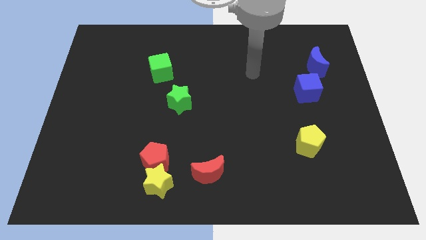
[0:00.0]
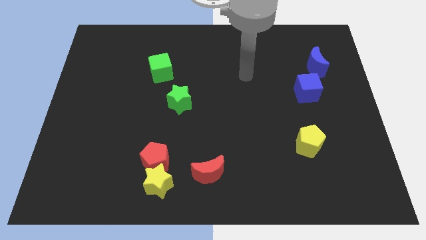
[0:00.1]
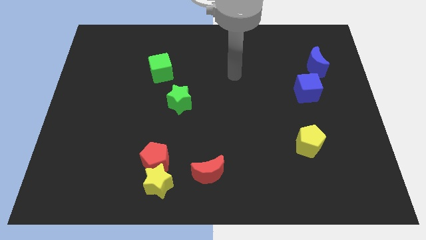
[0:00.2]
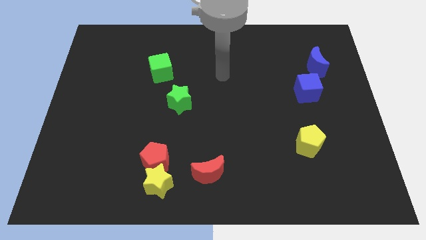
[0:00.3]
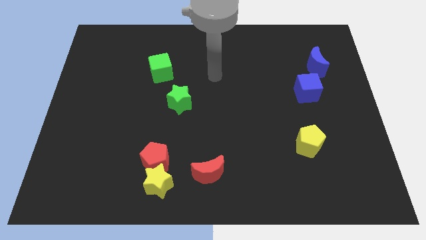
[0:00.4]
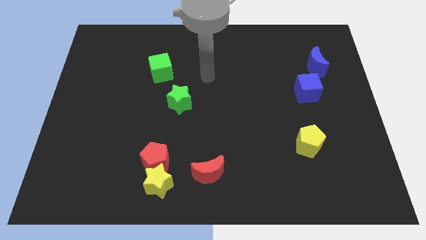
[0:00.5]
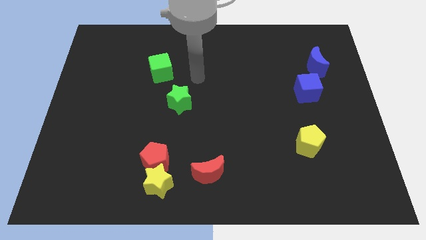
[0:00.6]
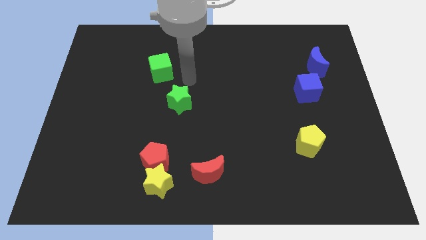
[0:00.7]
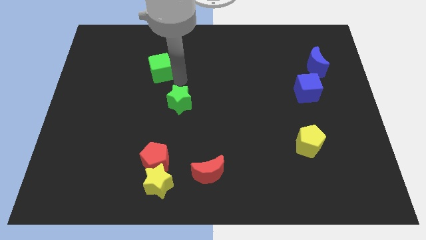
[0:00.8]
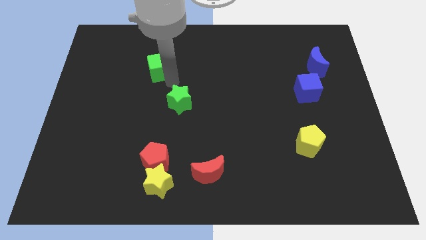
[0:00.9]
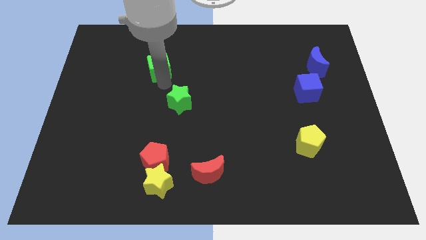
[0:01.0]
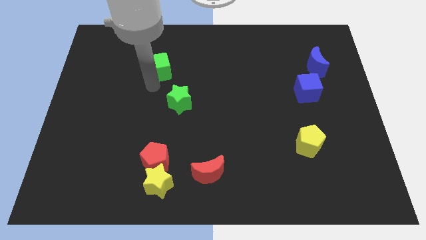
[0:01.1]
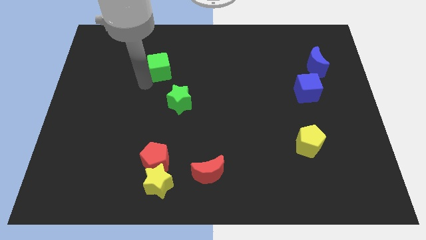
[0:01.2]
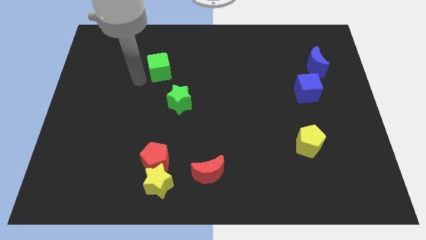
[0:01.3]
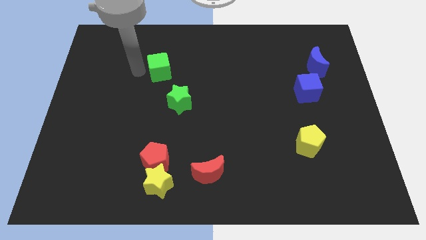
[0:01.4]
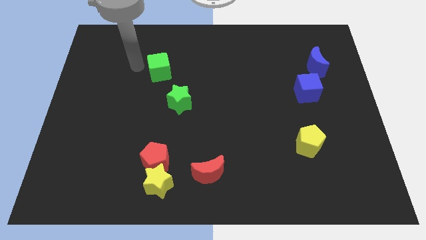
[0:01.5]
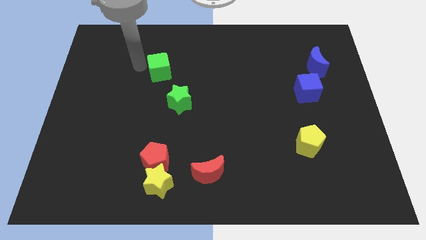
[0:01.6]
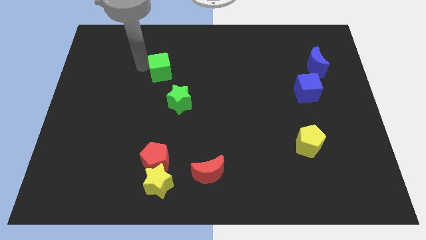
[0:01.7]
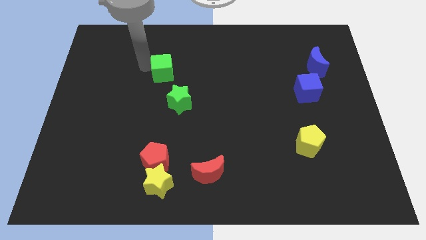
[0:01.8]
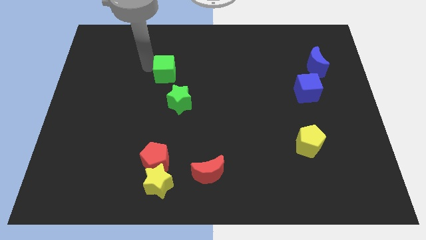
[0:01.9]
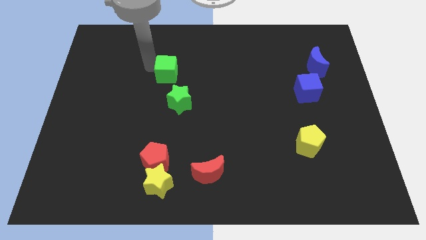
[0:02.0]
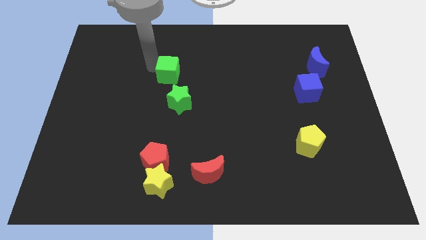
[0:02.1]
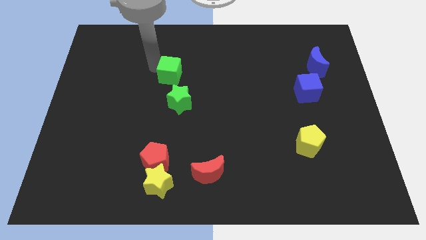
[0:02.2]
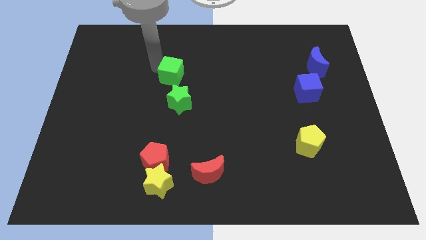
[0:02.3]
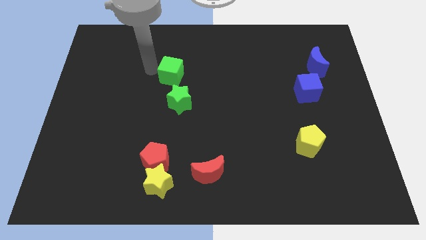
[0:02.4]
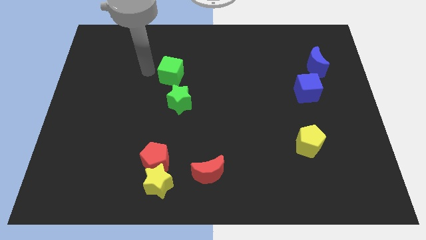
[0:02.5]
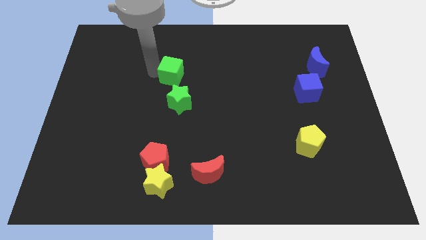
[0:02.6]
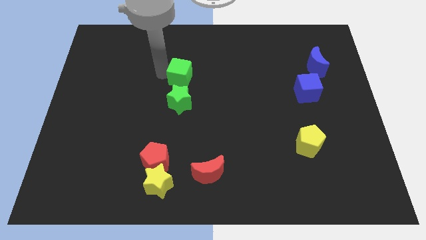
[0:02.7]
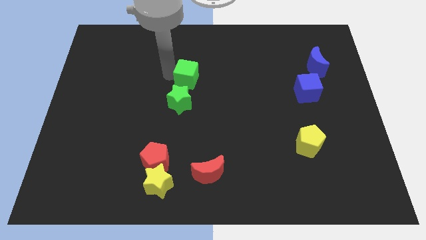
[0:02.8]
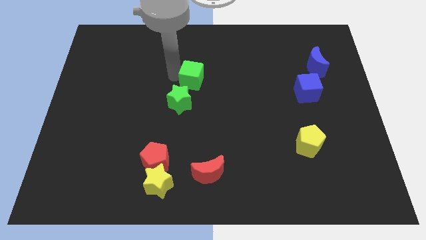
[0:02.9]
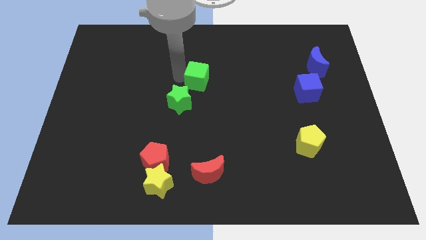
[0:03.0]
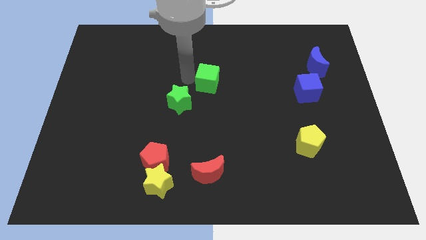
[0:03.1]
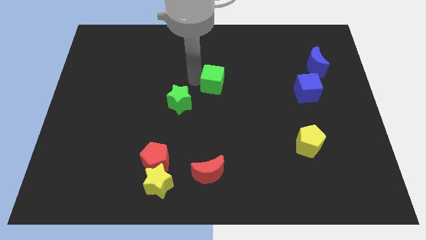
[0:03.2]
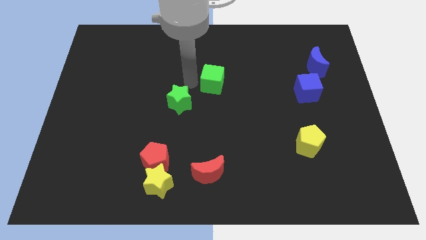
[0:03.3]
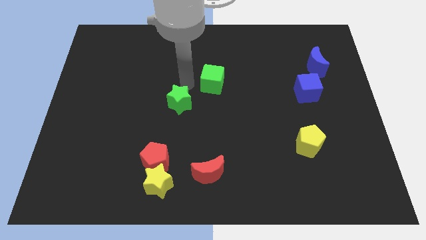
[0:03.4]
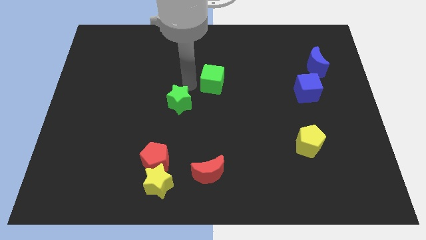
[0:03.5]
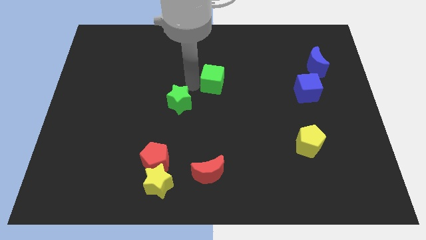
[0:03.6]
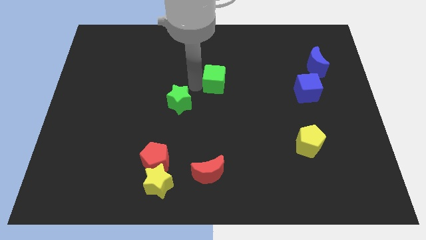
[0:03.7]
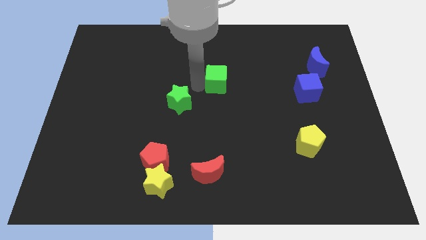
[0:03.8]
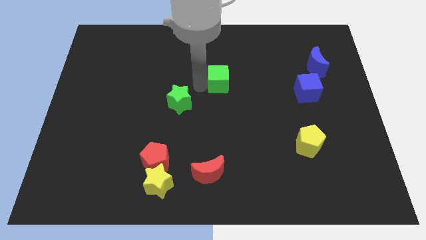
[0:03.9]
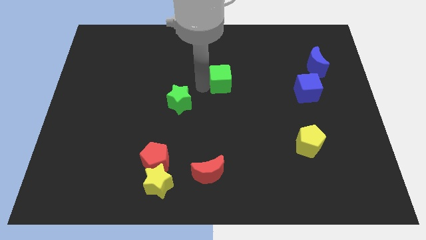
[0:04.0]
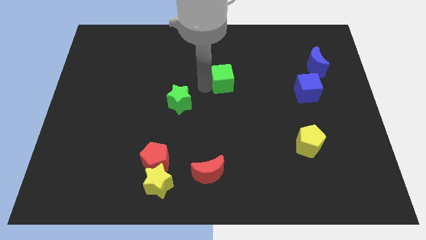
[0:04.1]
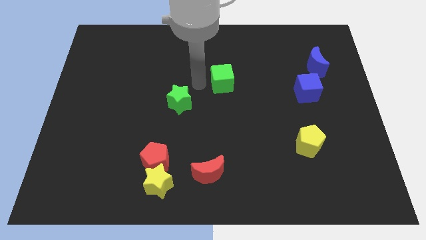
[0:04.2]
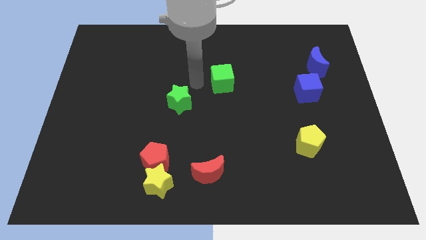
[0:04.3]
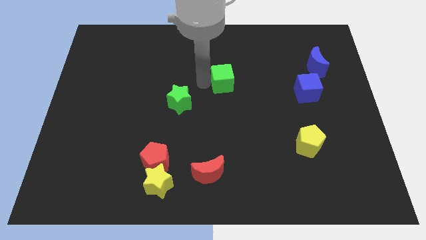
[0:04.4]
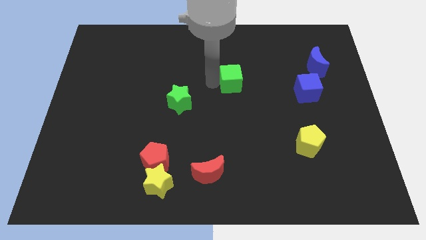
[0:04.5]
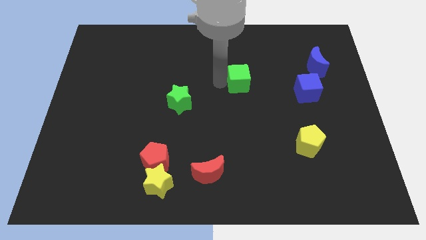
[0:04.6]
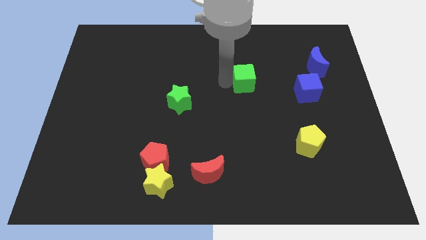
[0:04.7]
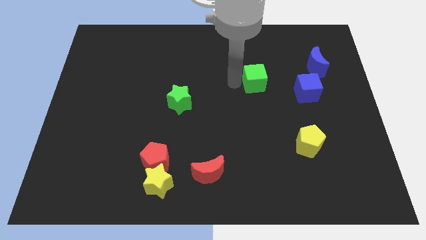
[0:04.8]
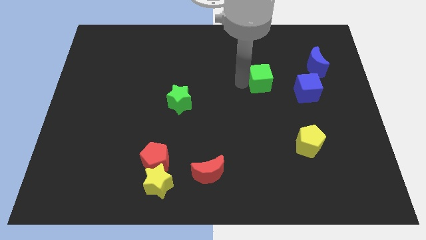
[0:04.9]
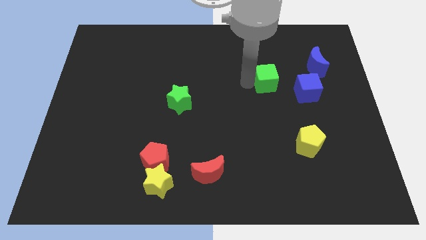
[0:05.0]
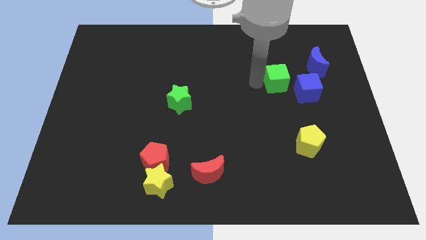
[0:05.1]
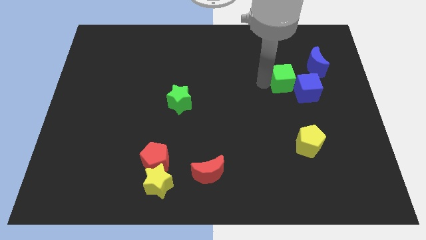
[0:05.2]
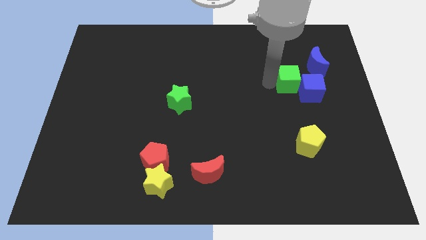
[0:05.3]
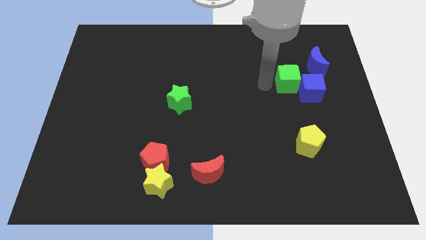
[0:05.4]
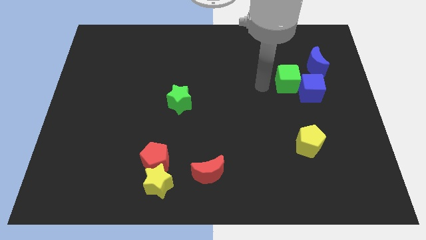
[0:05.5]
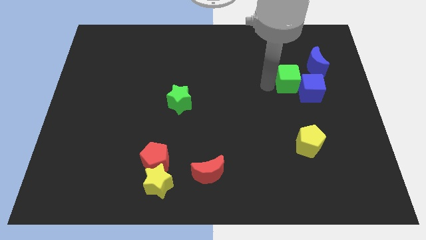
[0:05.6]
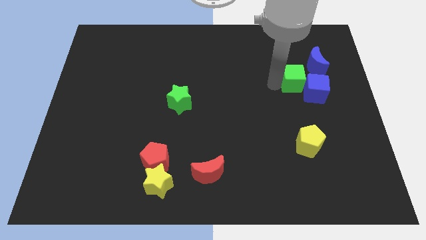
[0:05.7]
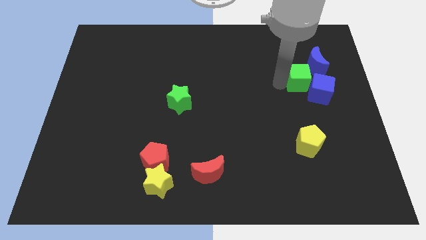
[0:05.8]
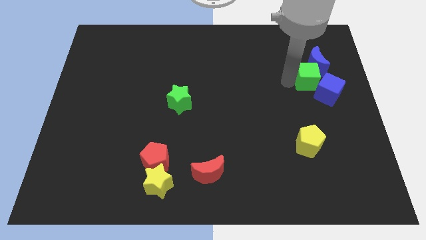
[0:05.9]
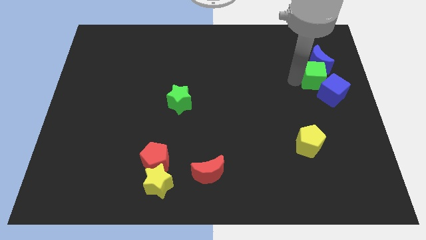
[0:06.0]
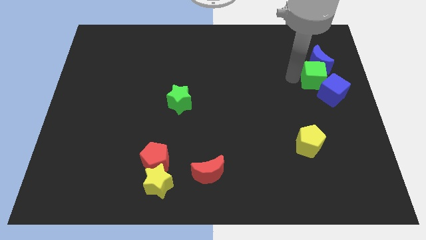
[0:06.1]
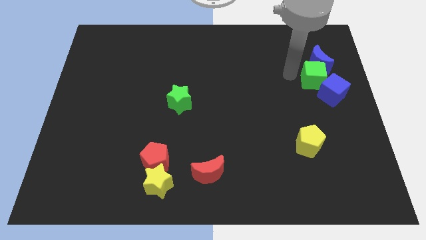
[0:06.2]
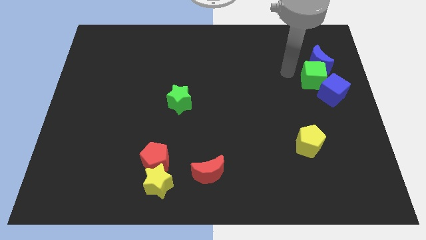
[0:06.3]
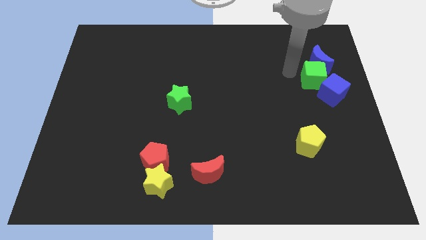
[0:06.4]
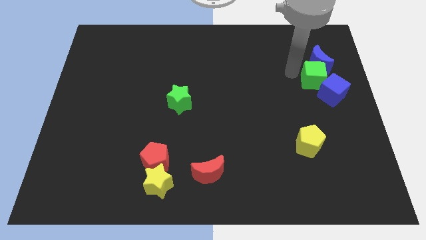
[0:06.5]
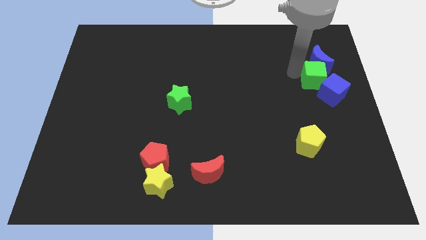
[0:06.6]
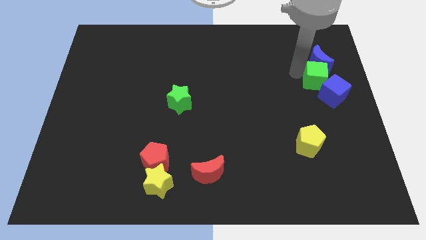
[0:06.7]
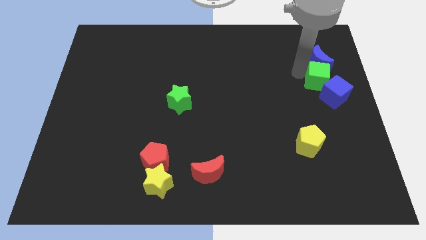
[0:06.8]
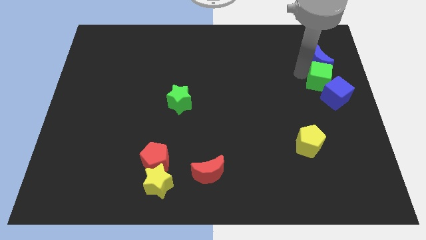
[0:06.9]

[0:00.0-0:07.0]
move the green cube to the right side of the board

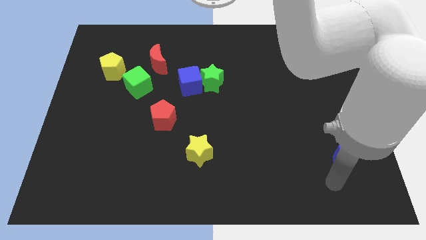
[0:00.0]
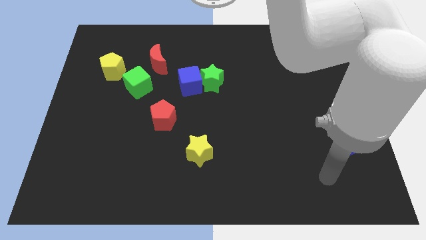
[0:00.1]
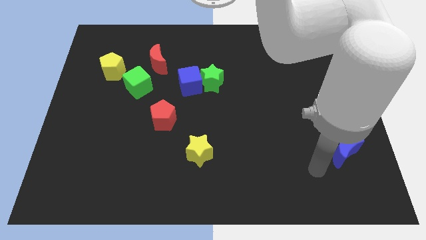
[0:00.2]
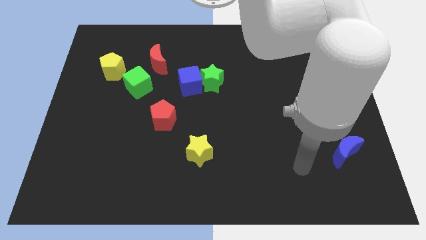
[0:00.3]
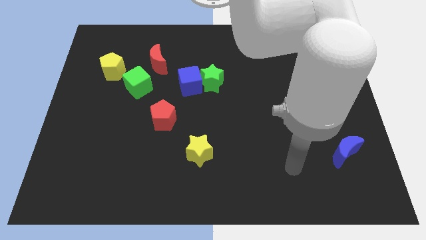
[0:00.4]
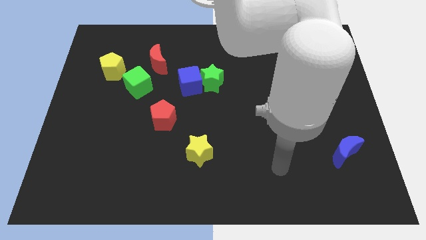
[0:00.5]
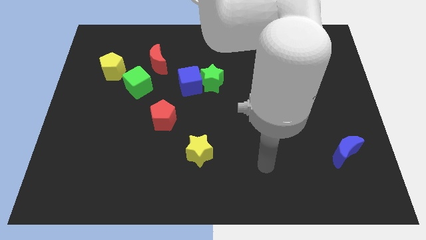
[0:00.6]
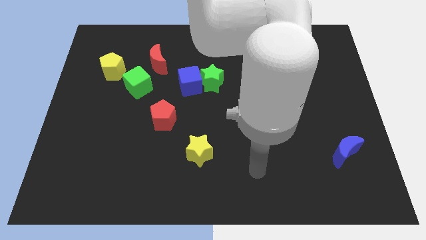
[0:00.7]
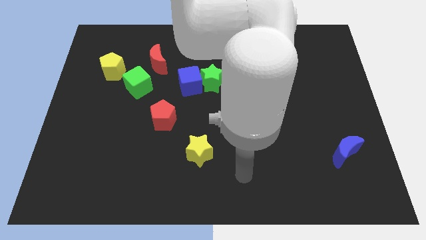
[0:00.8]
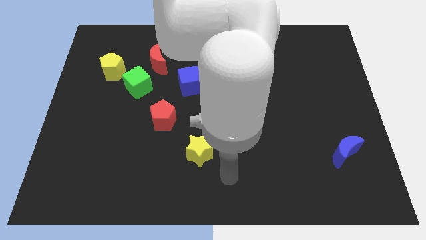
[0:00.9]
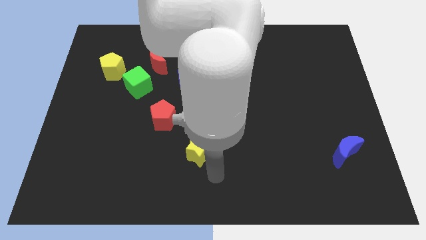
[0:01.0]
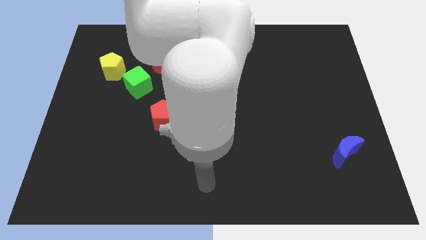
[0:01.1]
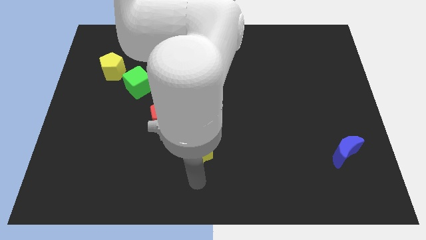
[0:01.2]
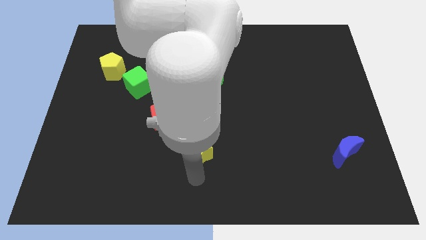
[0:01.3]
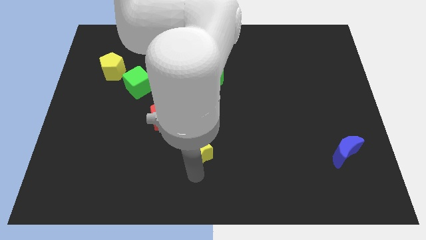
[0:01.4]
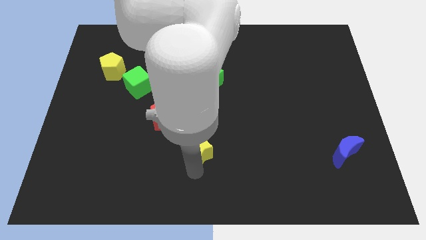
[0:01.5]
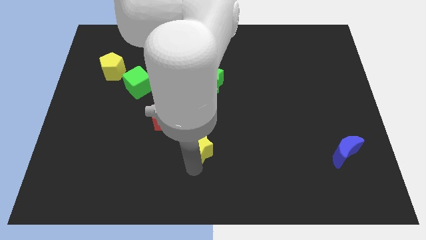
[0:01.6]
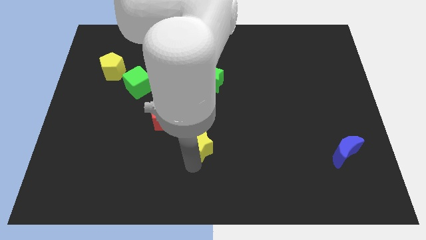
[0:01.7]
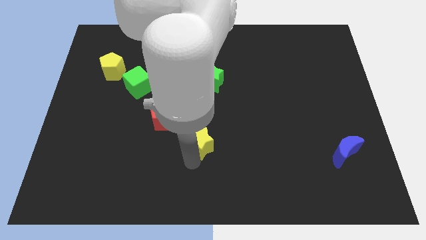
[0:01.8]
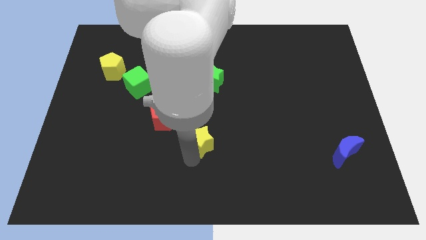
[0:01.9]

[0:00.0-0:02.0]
move the yellow star to the middle
